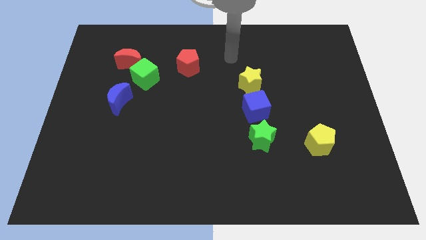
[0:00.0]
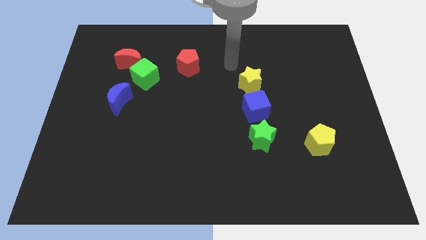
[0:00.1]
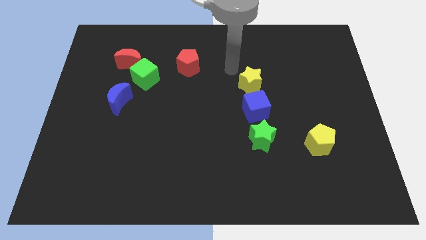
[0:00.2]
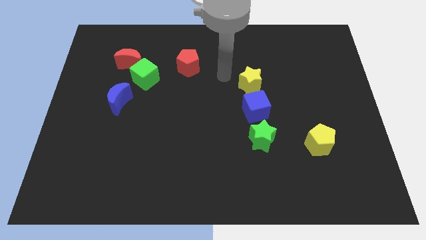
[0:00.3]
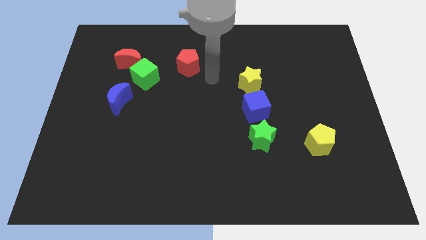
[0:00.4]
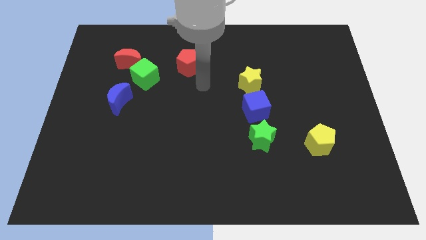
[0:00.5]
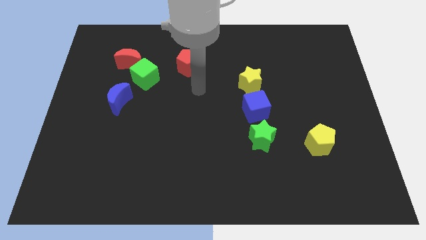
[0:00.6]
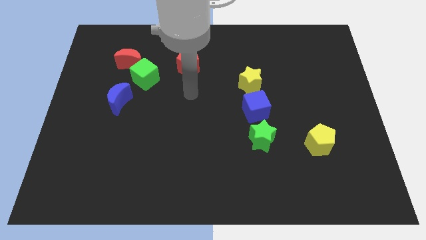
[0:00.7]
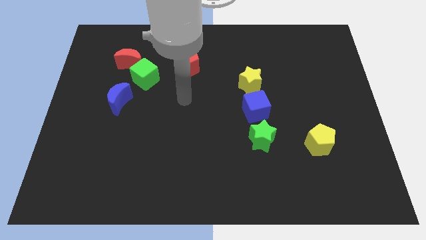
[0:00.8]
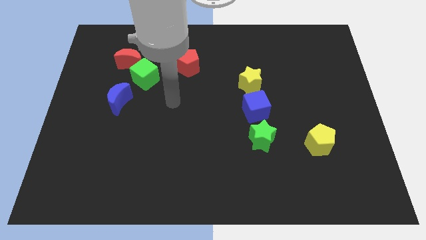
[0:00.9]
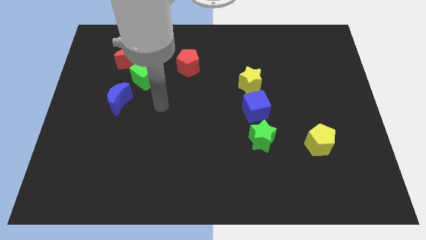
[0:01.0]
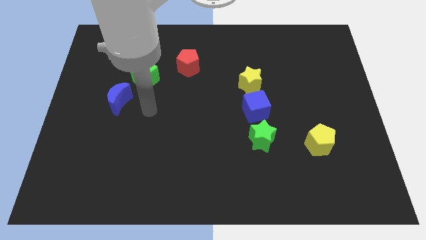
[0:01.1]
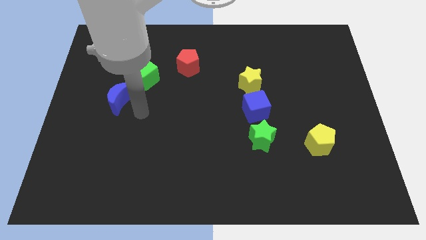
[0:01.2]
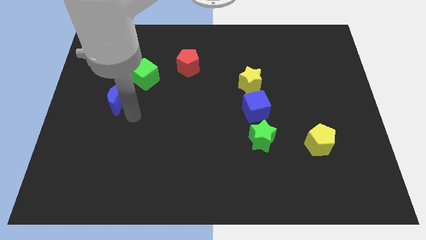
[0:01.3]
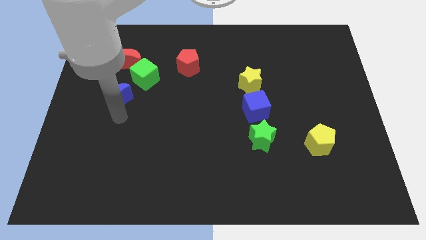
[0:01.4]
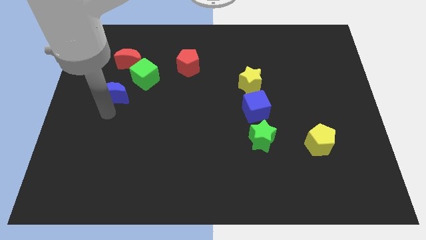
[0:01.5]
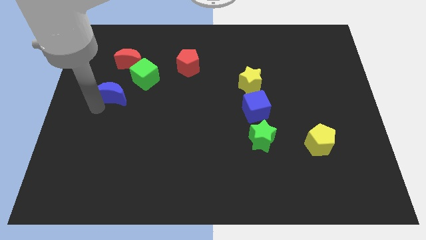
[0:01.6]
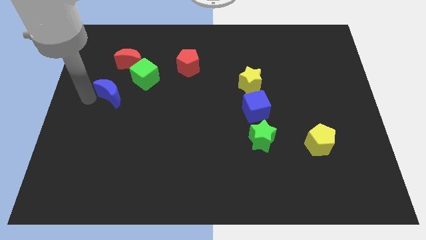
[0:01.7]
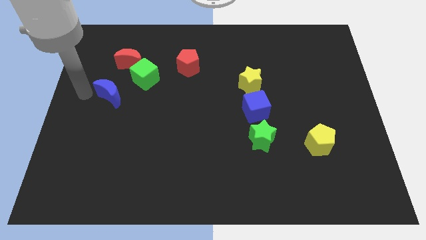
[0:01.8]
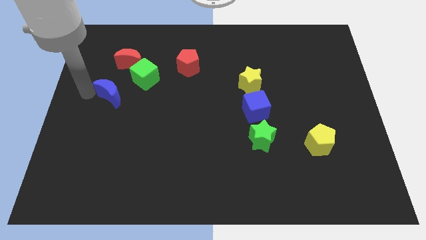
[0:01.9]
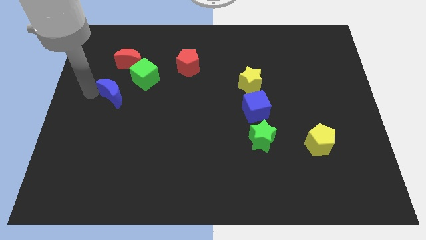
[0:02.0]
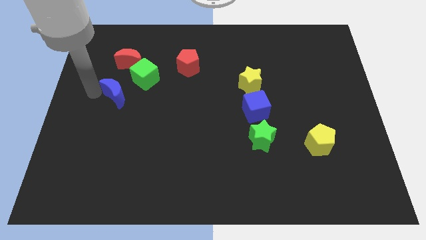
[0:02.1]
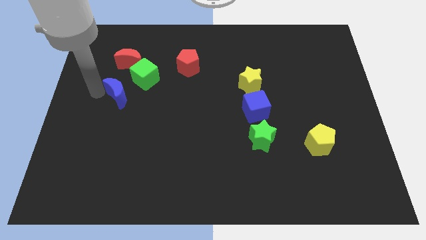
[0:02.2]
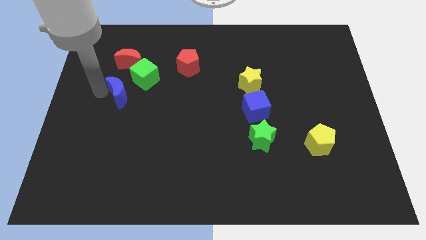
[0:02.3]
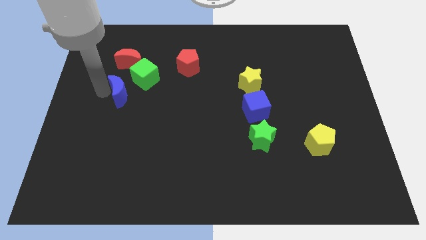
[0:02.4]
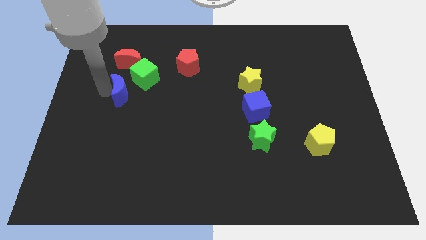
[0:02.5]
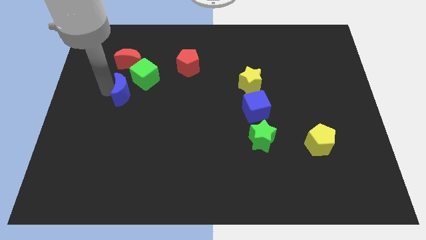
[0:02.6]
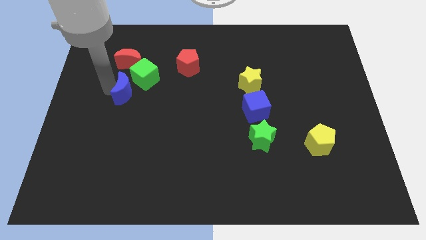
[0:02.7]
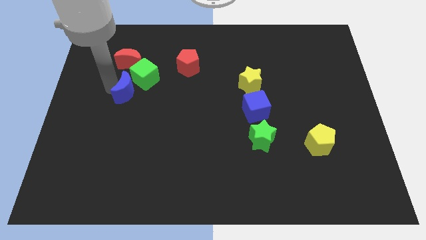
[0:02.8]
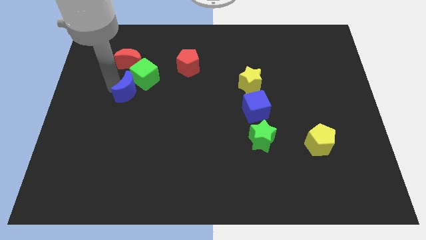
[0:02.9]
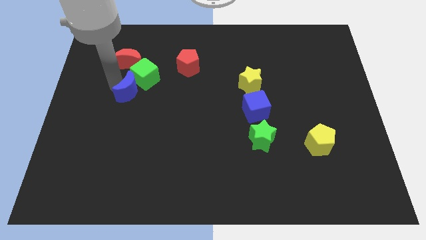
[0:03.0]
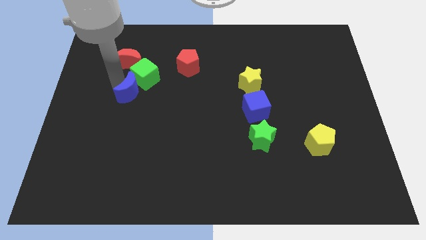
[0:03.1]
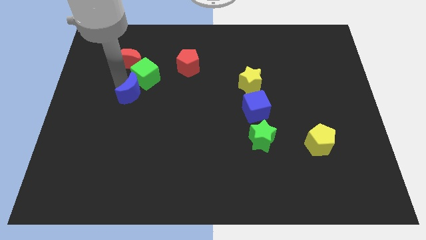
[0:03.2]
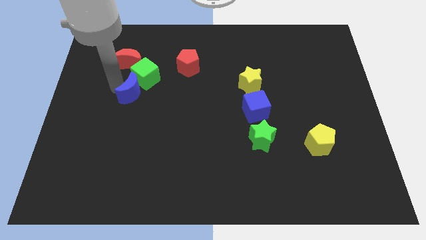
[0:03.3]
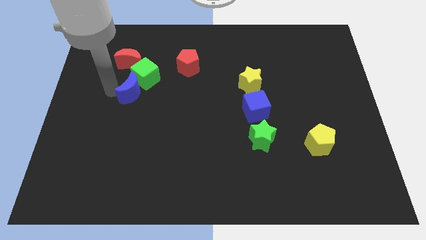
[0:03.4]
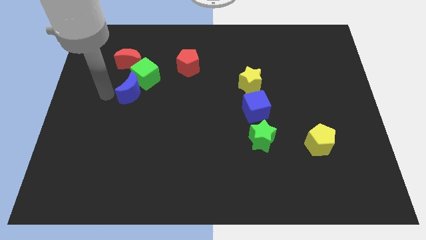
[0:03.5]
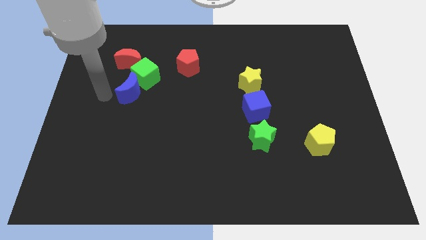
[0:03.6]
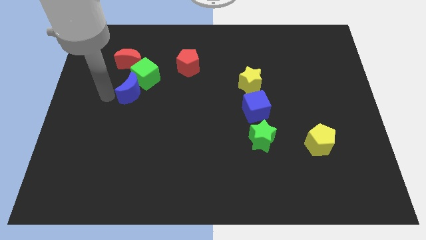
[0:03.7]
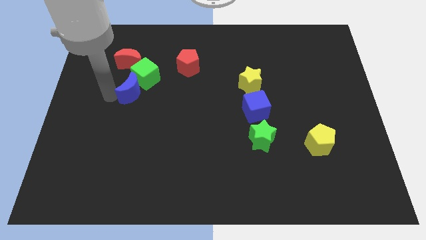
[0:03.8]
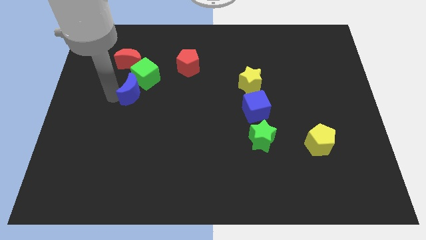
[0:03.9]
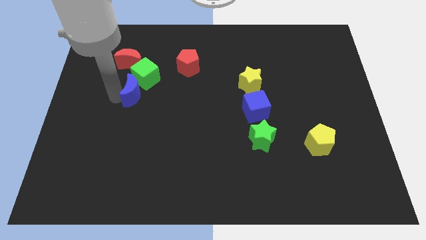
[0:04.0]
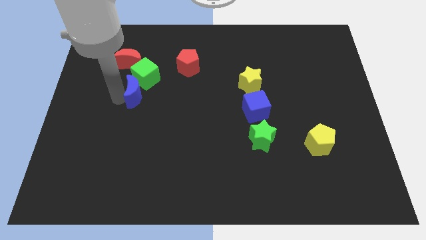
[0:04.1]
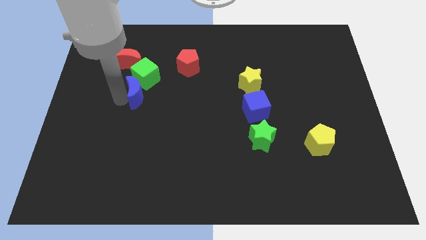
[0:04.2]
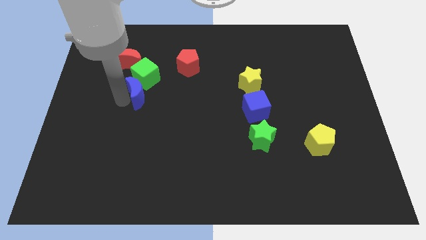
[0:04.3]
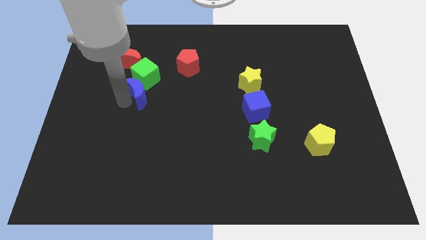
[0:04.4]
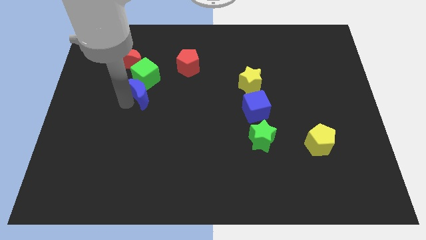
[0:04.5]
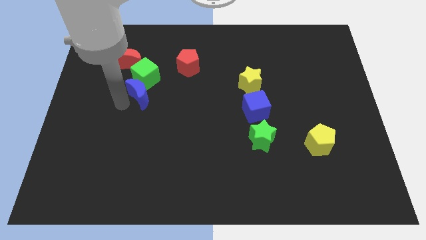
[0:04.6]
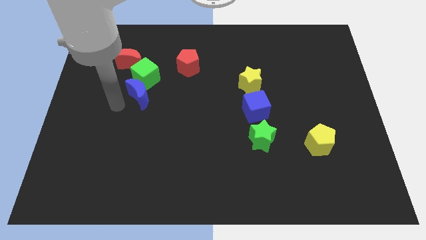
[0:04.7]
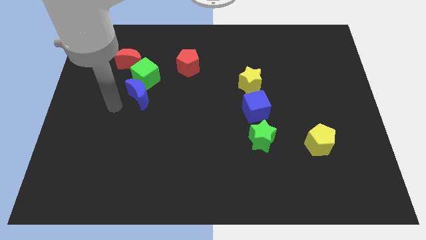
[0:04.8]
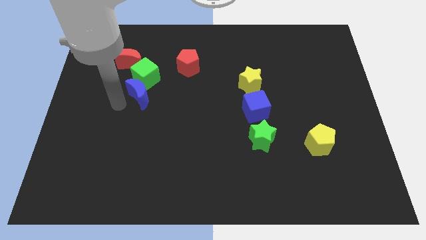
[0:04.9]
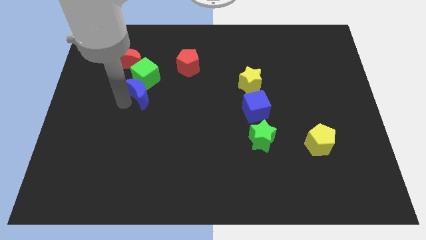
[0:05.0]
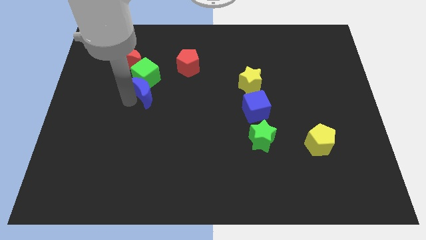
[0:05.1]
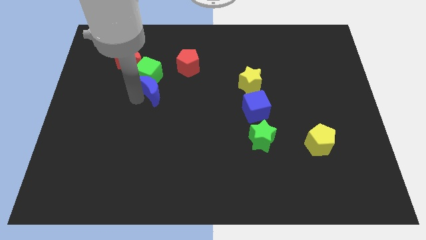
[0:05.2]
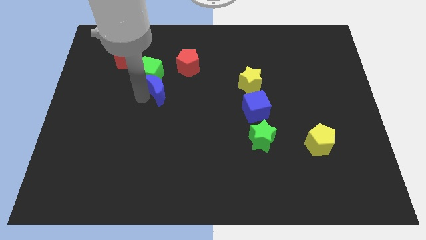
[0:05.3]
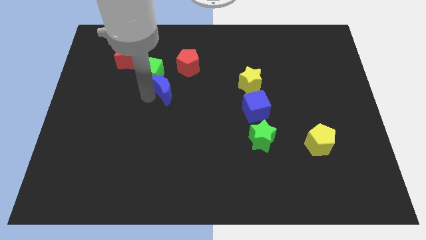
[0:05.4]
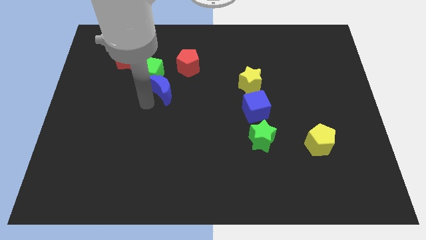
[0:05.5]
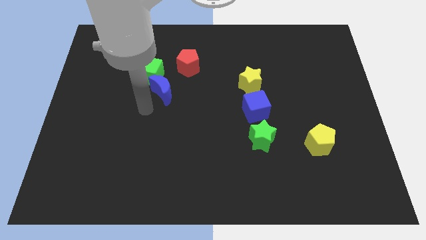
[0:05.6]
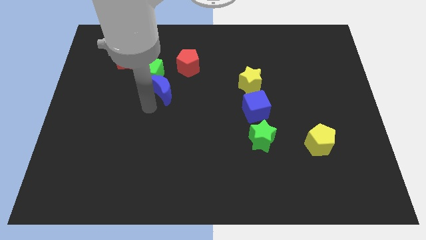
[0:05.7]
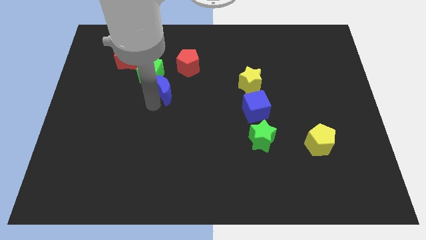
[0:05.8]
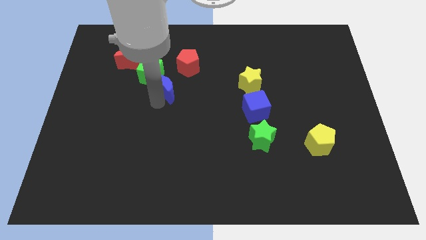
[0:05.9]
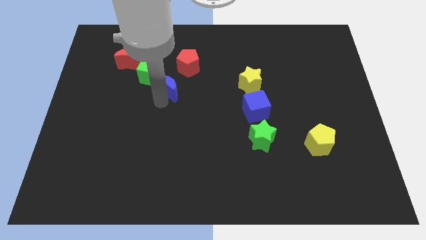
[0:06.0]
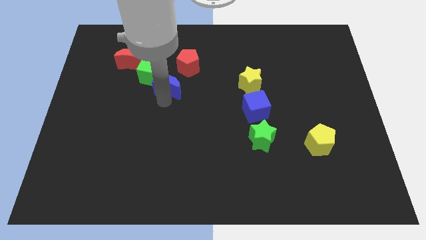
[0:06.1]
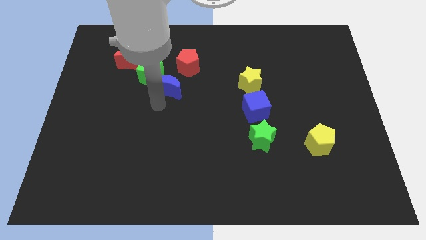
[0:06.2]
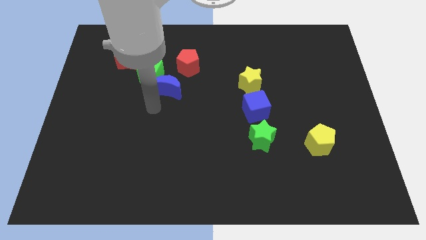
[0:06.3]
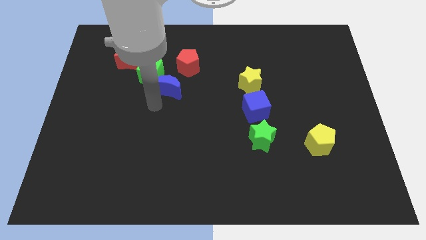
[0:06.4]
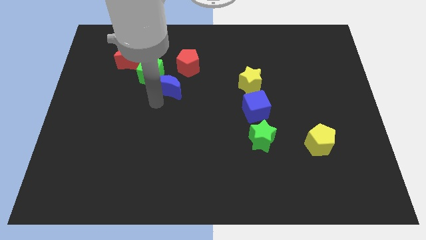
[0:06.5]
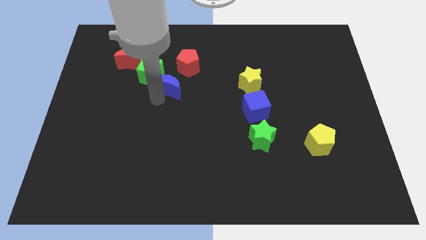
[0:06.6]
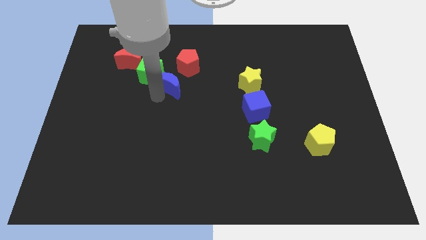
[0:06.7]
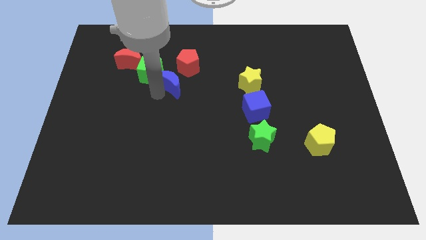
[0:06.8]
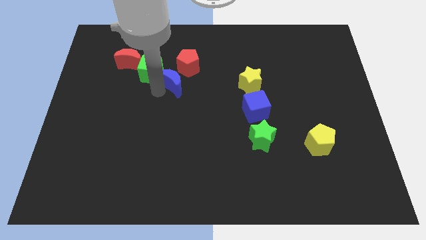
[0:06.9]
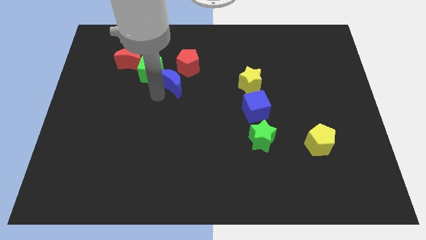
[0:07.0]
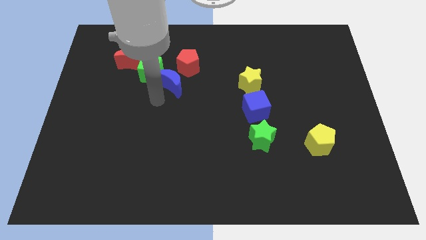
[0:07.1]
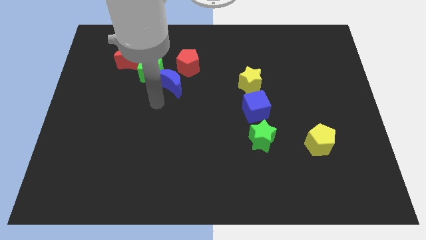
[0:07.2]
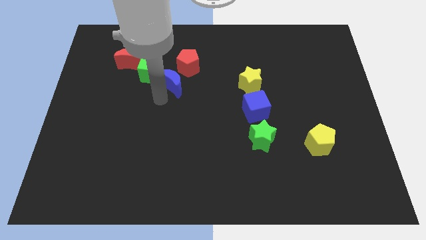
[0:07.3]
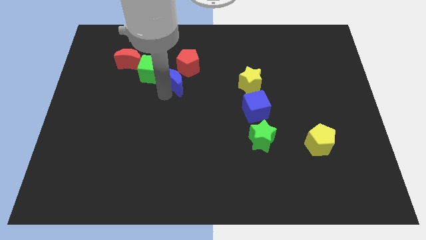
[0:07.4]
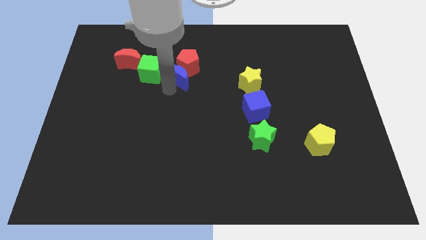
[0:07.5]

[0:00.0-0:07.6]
move the blue moon towards the red pentagon
